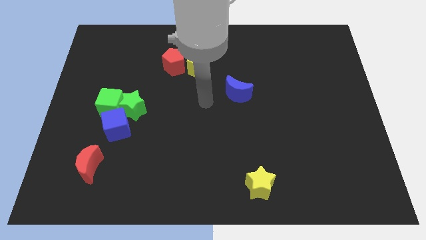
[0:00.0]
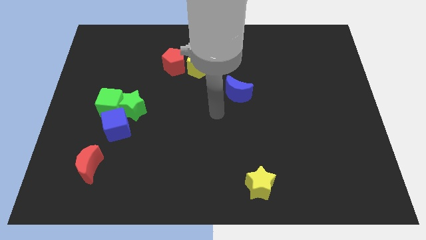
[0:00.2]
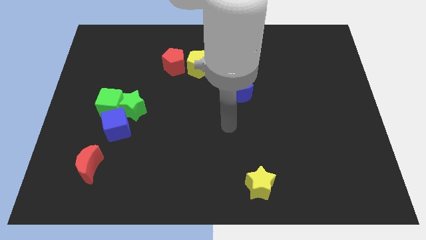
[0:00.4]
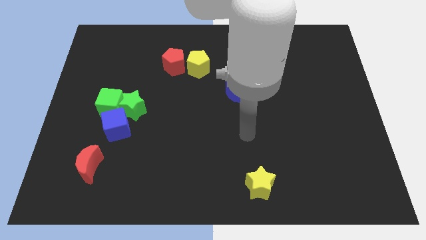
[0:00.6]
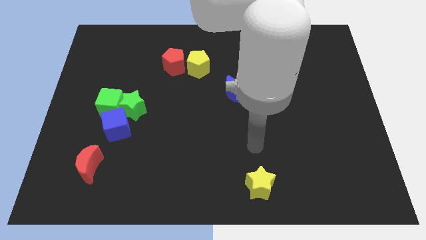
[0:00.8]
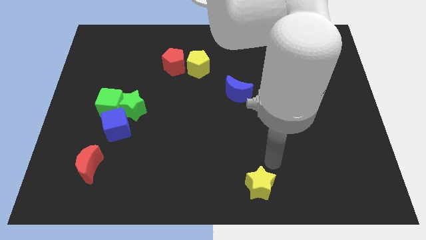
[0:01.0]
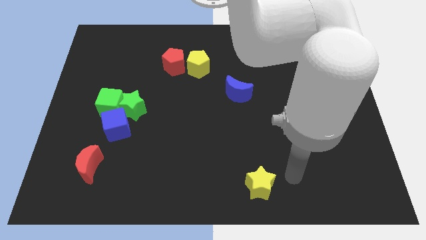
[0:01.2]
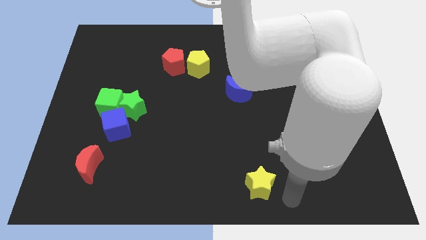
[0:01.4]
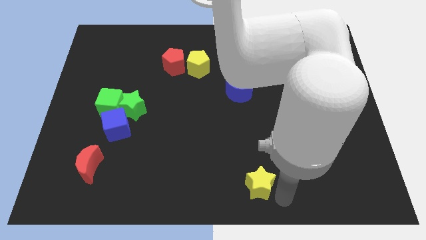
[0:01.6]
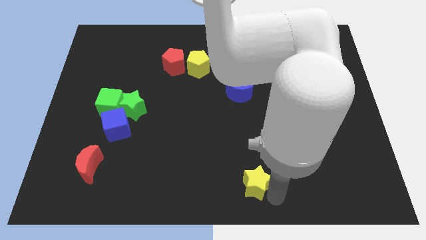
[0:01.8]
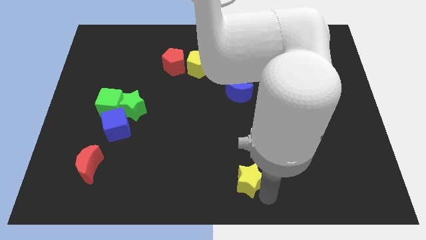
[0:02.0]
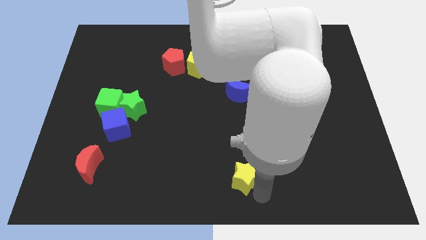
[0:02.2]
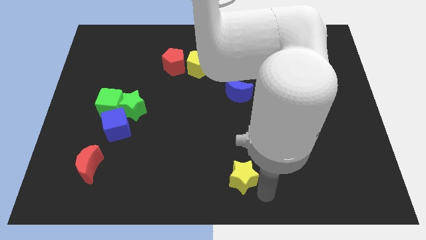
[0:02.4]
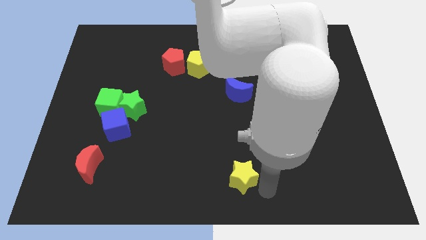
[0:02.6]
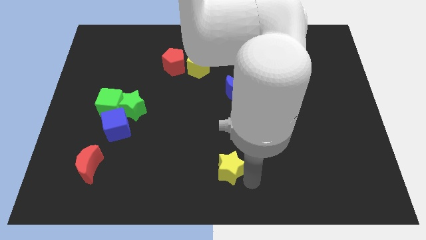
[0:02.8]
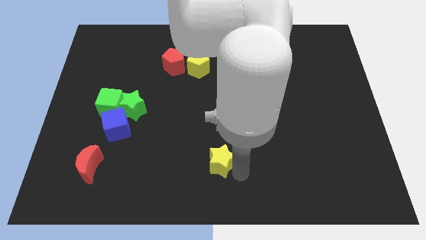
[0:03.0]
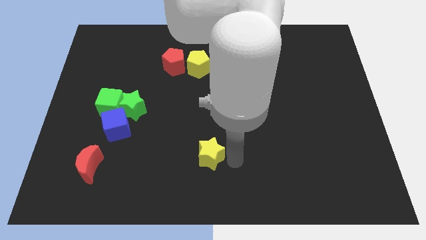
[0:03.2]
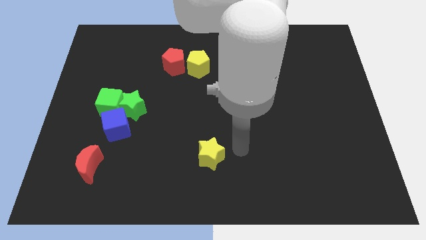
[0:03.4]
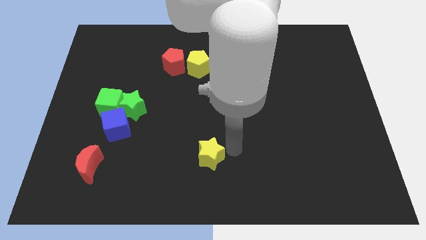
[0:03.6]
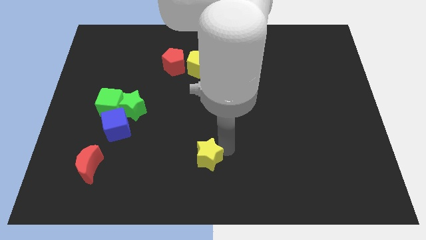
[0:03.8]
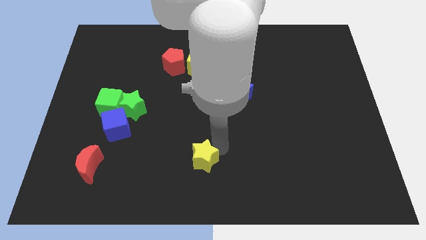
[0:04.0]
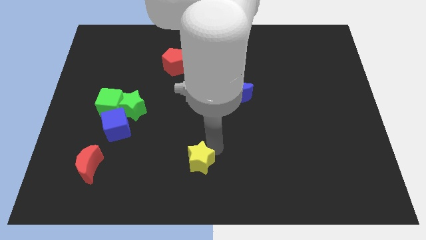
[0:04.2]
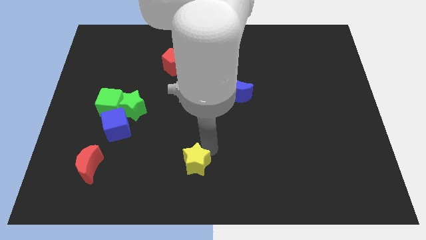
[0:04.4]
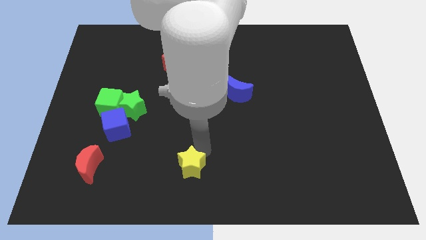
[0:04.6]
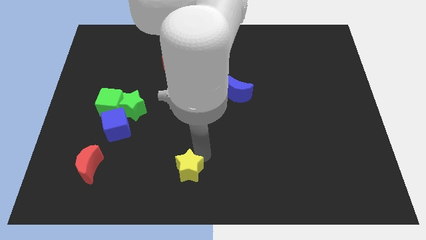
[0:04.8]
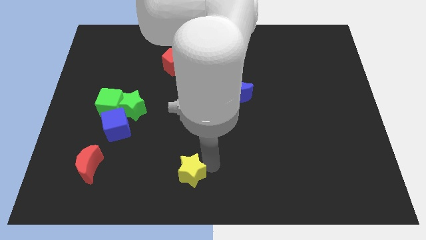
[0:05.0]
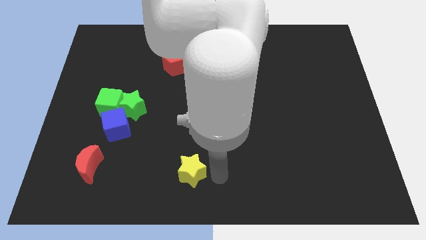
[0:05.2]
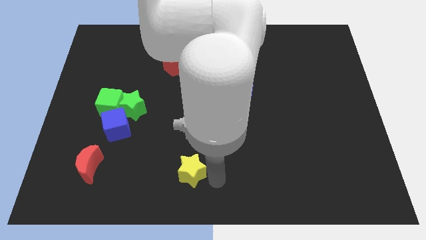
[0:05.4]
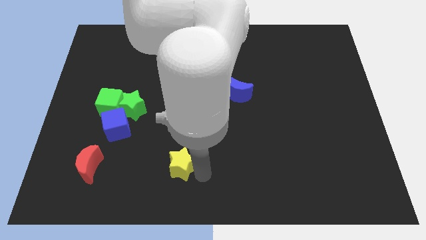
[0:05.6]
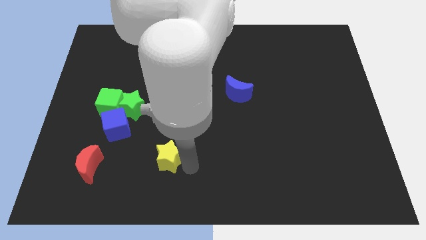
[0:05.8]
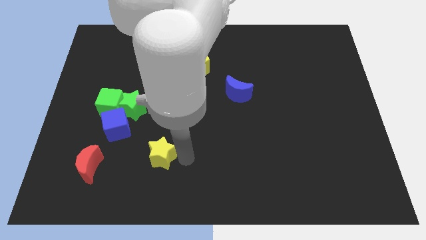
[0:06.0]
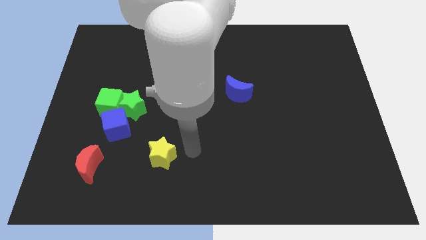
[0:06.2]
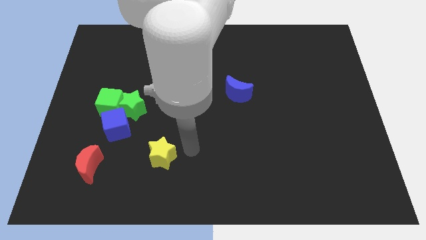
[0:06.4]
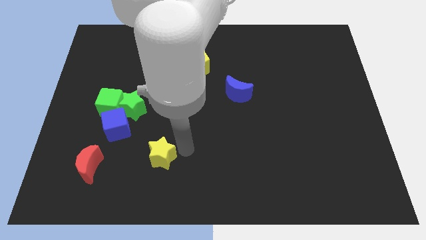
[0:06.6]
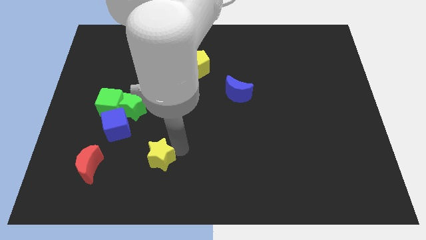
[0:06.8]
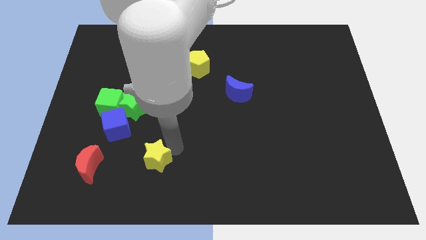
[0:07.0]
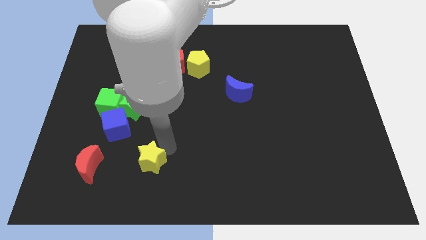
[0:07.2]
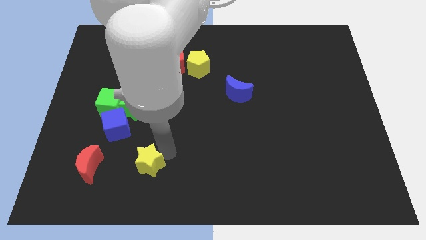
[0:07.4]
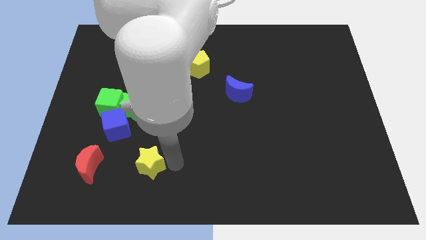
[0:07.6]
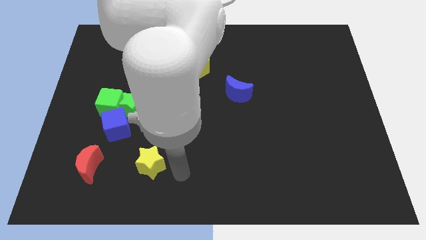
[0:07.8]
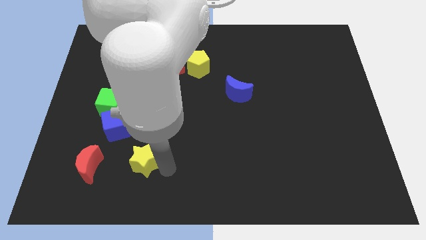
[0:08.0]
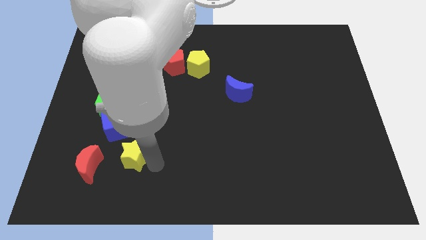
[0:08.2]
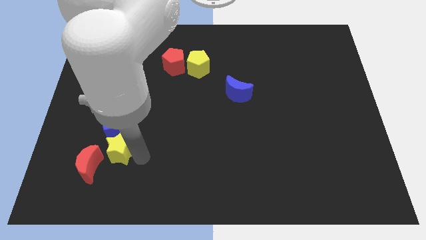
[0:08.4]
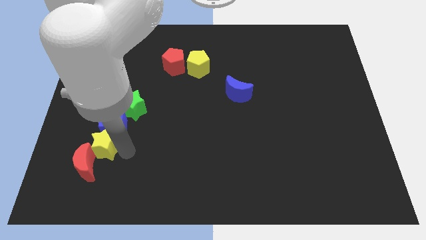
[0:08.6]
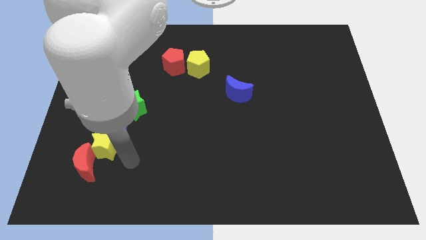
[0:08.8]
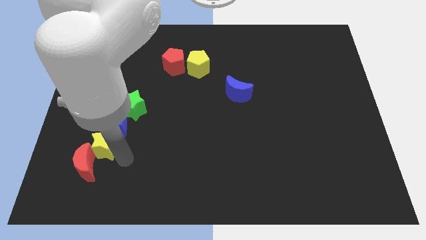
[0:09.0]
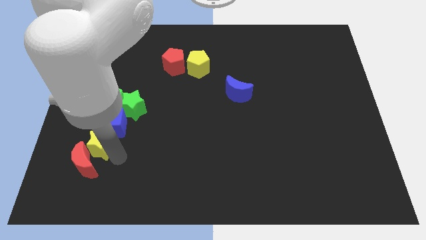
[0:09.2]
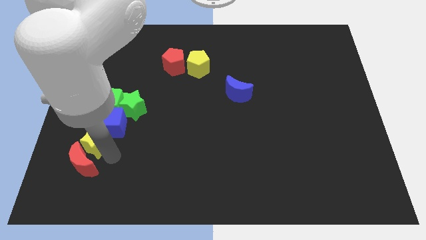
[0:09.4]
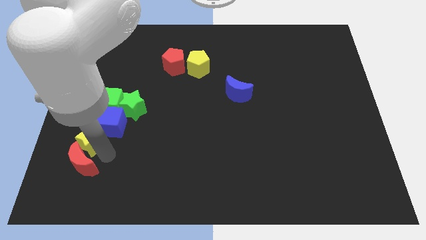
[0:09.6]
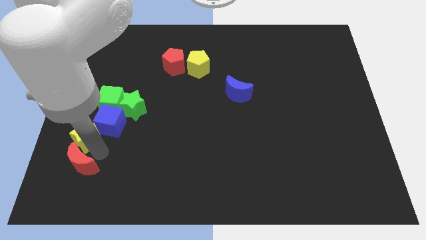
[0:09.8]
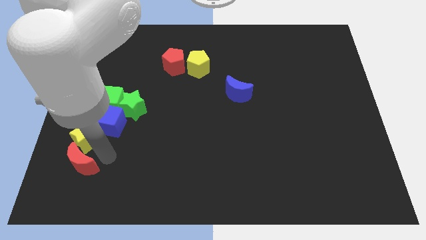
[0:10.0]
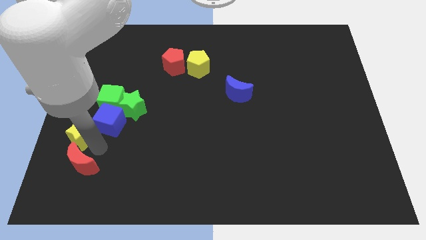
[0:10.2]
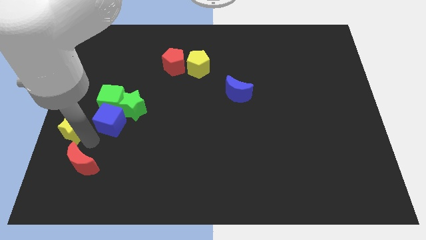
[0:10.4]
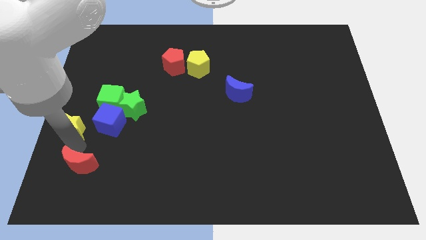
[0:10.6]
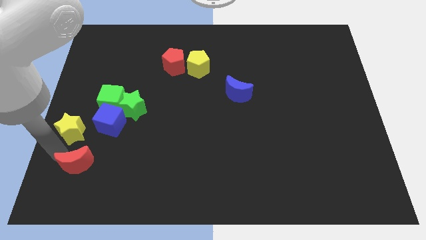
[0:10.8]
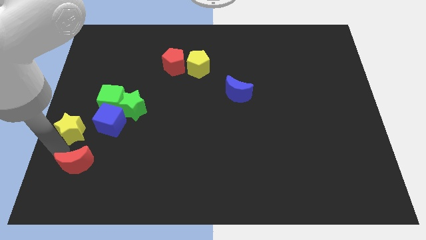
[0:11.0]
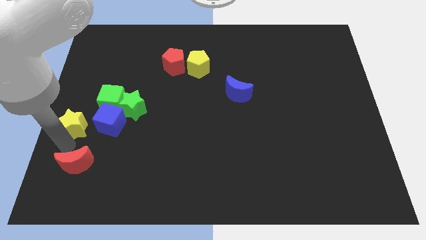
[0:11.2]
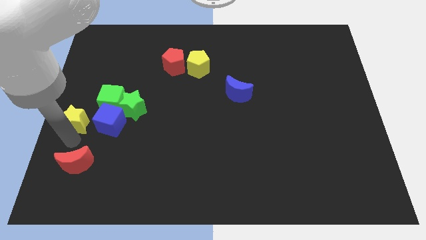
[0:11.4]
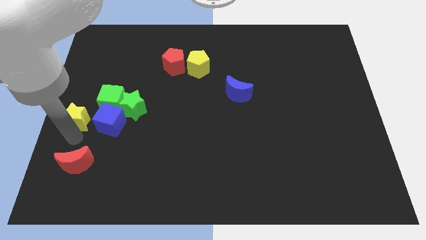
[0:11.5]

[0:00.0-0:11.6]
slide the yellow star diagonally up and to the left of the blue cube

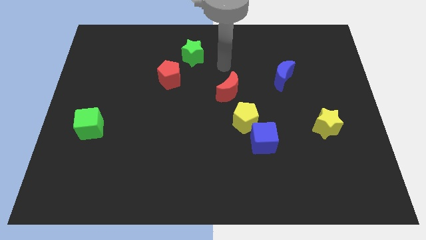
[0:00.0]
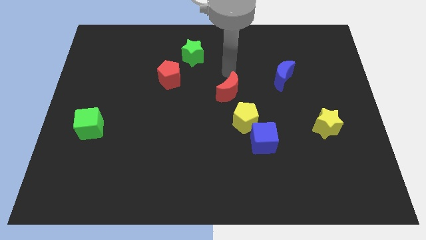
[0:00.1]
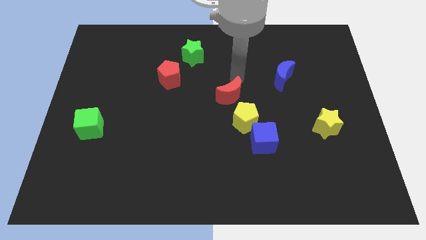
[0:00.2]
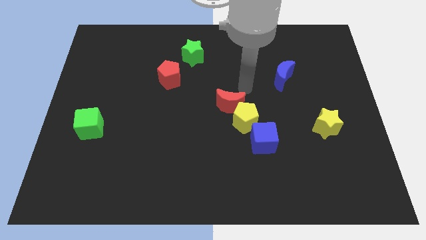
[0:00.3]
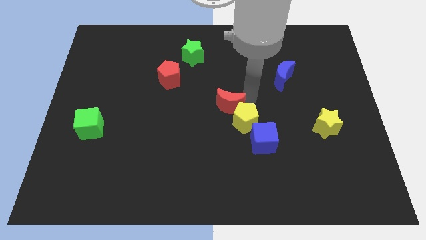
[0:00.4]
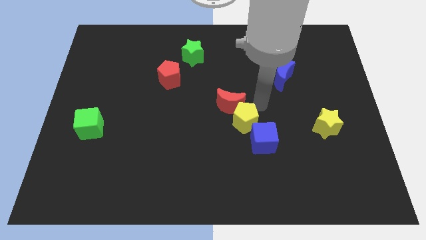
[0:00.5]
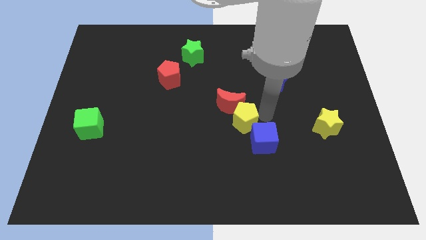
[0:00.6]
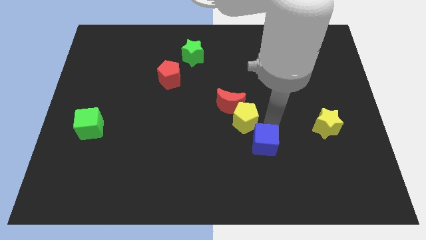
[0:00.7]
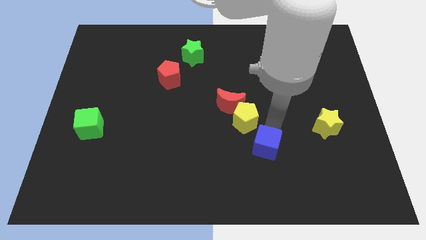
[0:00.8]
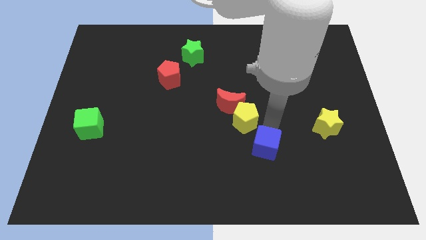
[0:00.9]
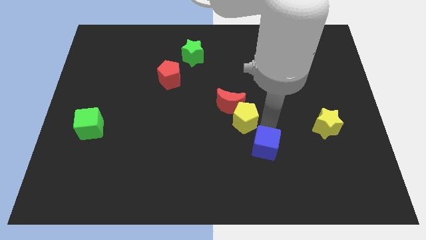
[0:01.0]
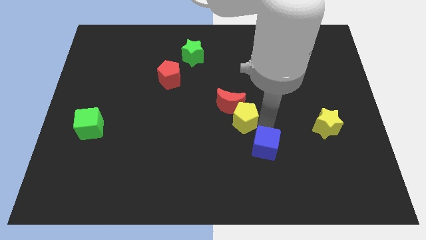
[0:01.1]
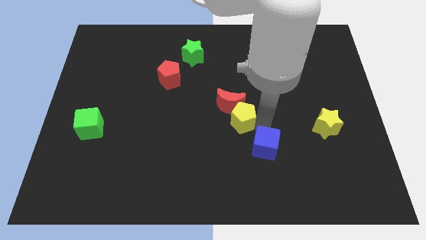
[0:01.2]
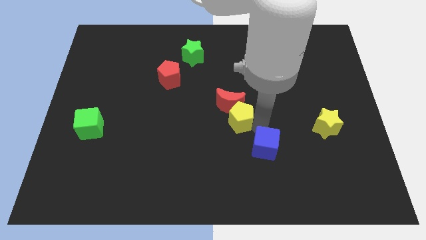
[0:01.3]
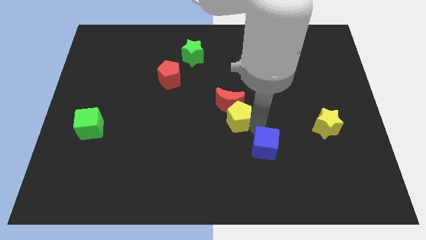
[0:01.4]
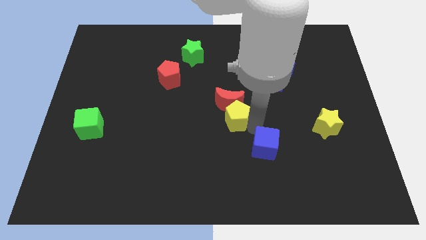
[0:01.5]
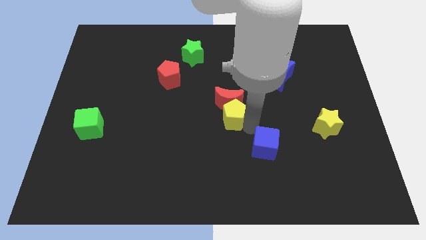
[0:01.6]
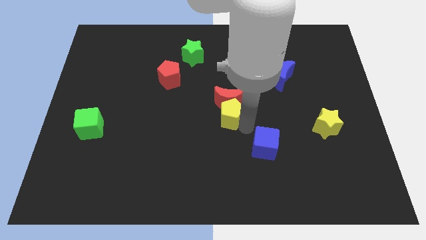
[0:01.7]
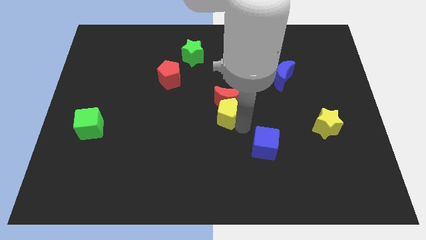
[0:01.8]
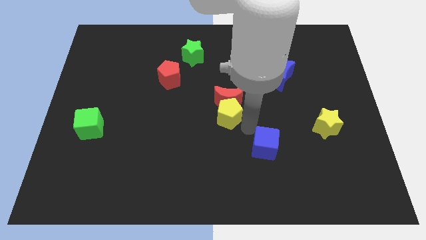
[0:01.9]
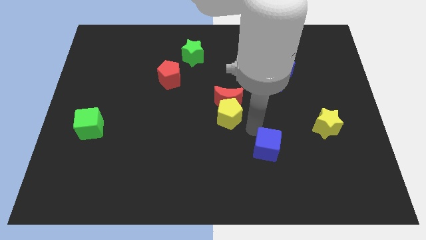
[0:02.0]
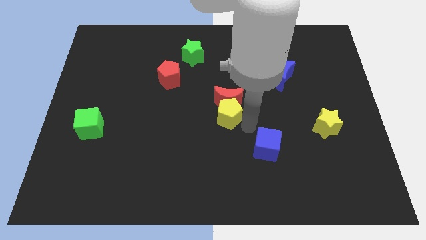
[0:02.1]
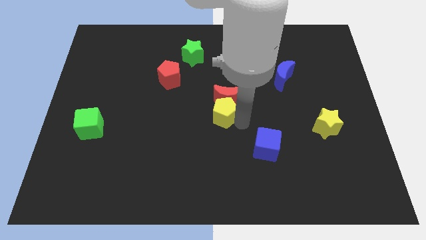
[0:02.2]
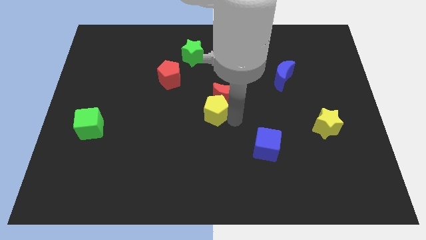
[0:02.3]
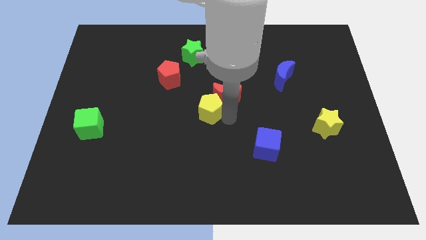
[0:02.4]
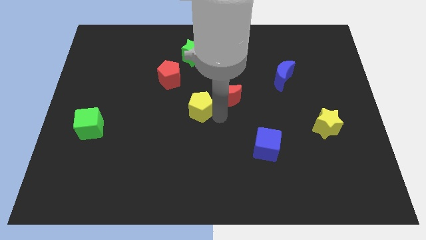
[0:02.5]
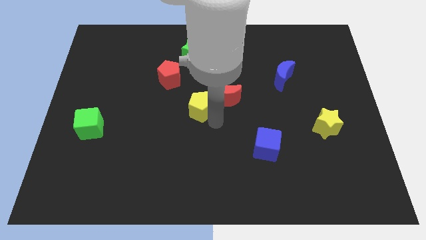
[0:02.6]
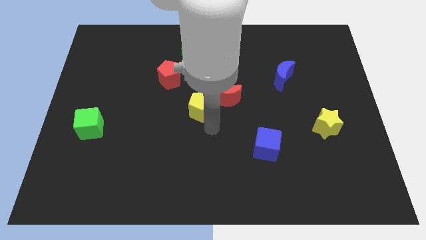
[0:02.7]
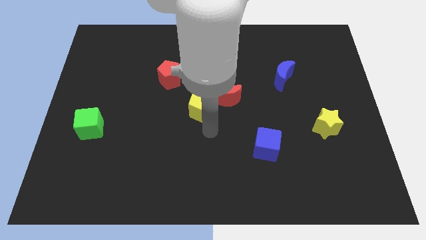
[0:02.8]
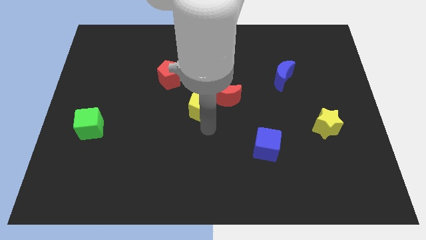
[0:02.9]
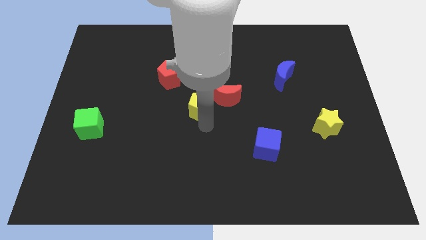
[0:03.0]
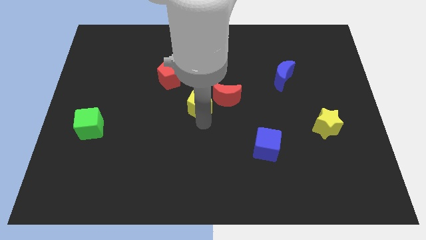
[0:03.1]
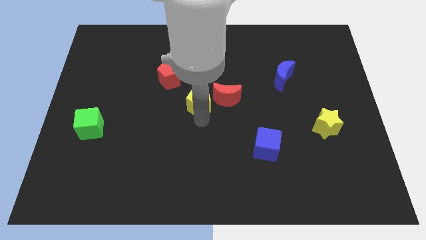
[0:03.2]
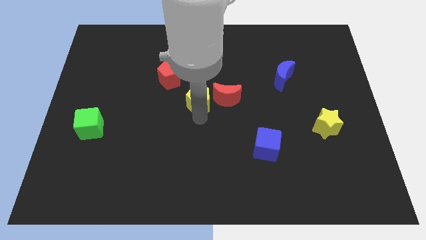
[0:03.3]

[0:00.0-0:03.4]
push the yellow pentagon below the green star
